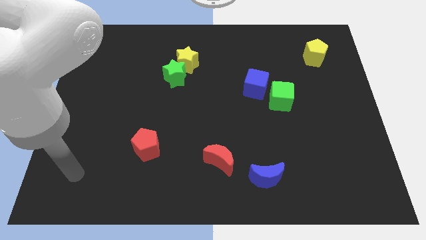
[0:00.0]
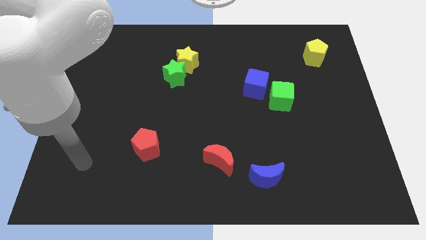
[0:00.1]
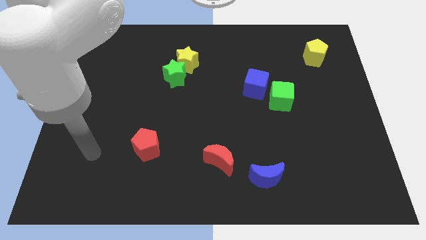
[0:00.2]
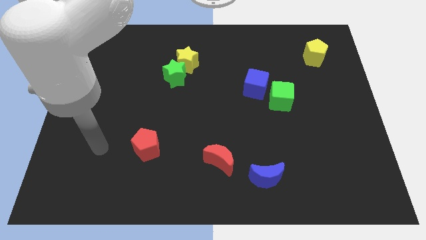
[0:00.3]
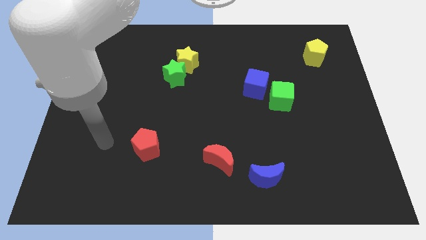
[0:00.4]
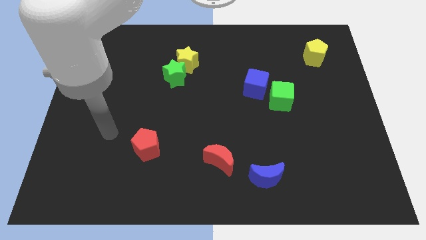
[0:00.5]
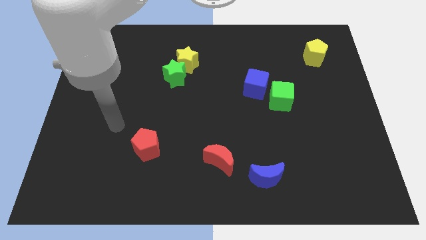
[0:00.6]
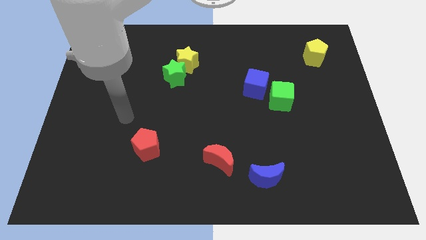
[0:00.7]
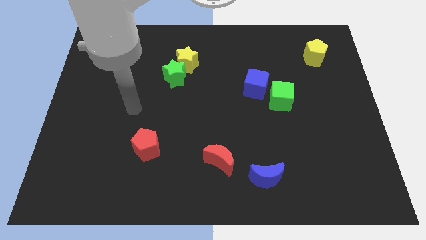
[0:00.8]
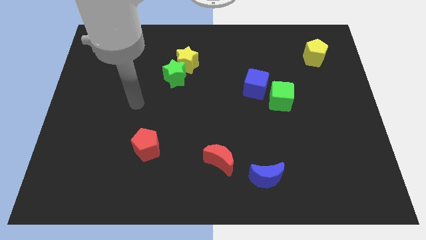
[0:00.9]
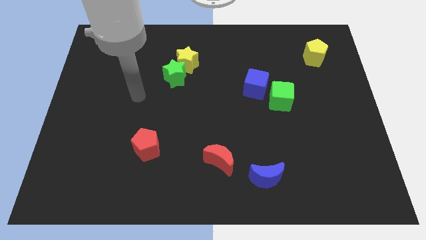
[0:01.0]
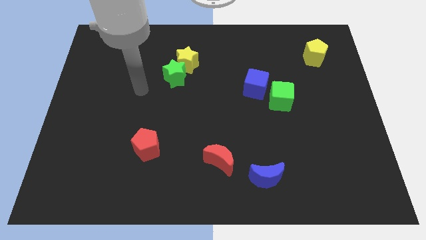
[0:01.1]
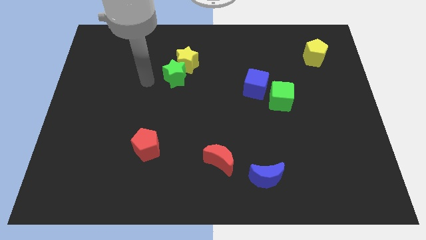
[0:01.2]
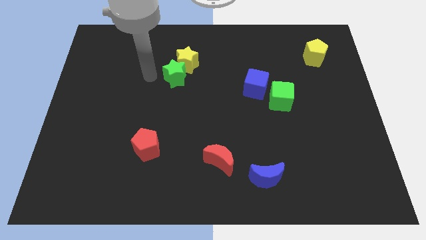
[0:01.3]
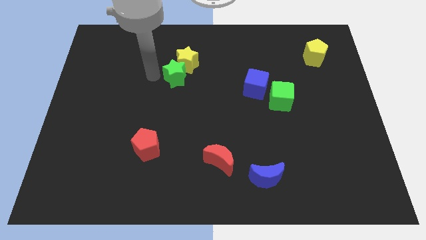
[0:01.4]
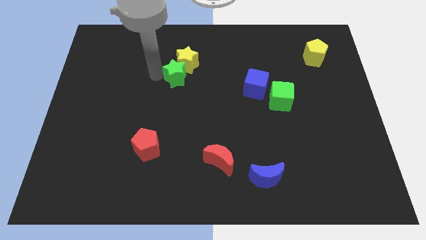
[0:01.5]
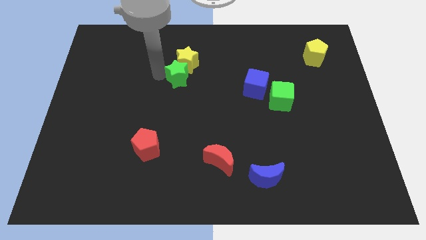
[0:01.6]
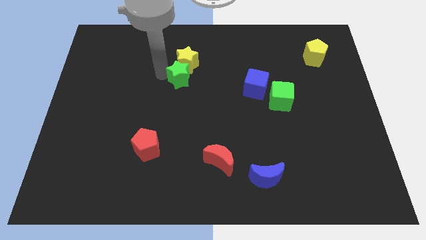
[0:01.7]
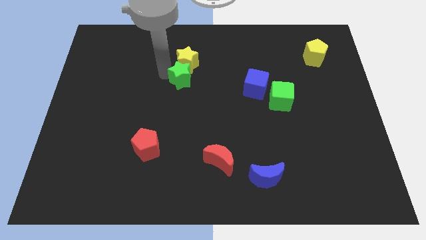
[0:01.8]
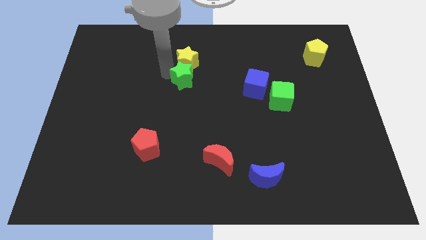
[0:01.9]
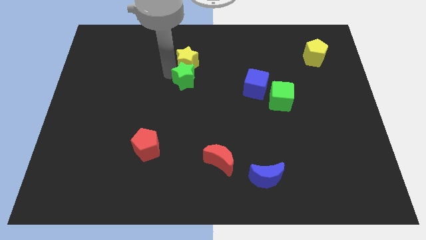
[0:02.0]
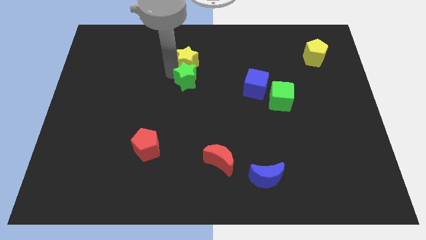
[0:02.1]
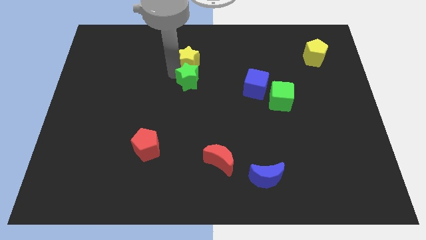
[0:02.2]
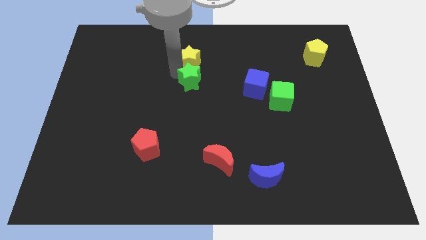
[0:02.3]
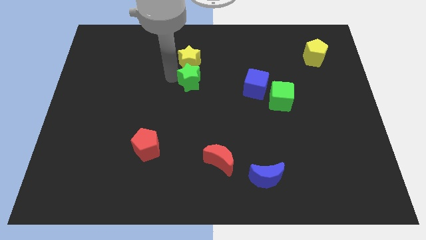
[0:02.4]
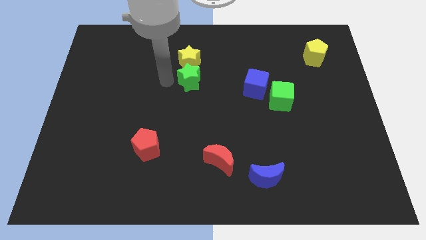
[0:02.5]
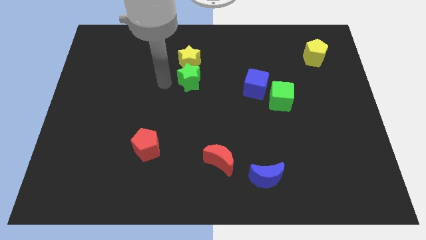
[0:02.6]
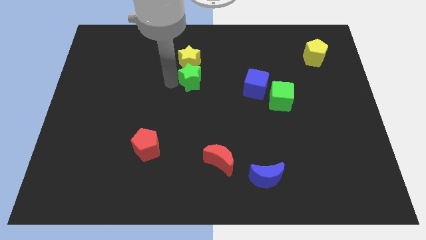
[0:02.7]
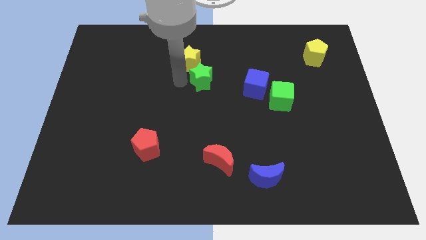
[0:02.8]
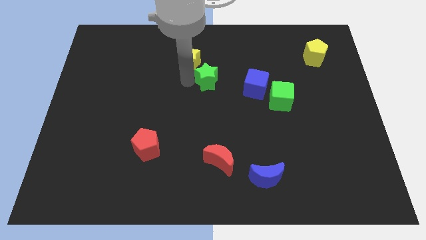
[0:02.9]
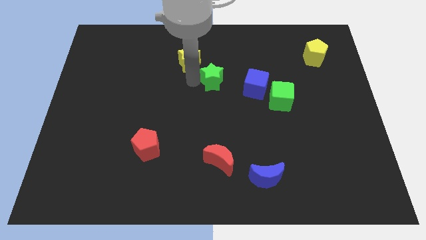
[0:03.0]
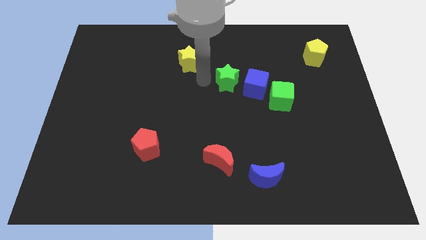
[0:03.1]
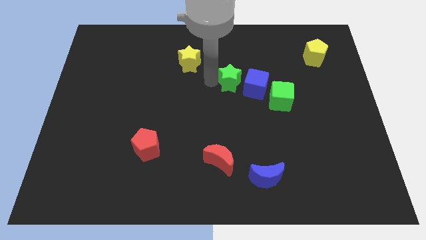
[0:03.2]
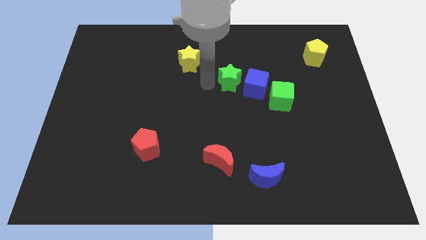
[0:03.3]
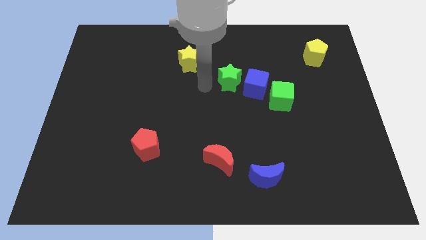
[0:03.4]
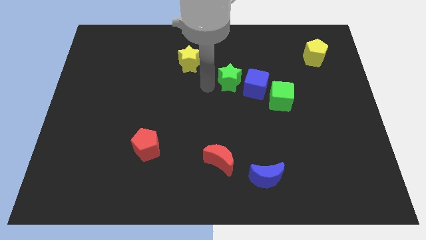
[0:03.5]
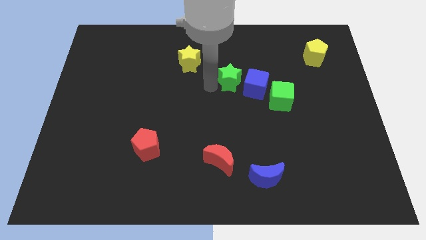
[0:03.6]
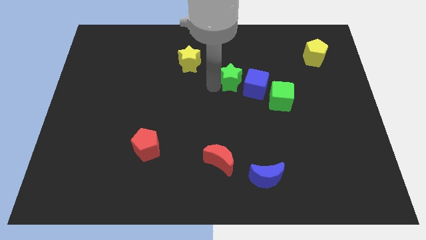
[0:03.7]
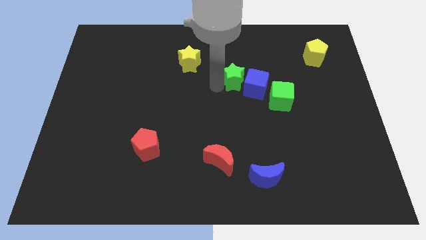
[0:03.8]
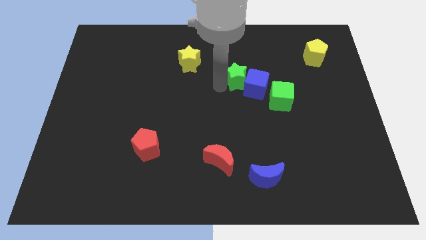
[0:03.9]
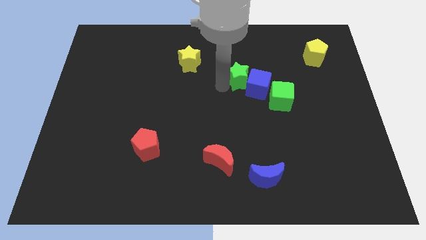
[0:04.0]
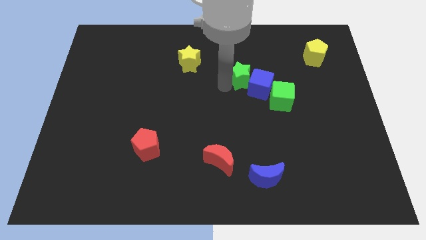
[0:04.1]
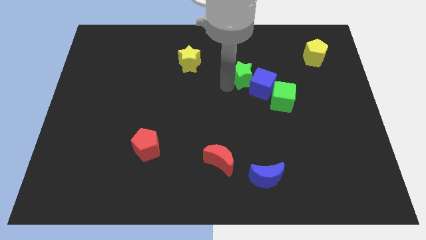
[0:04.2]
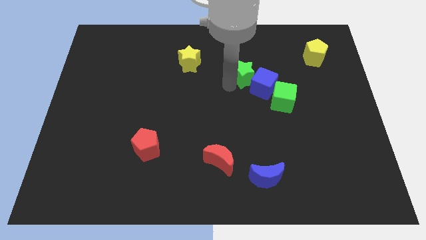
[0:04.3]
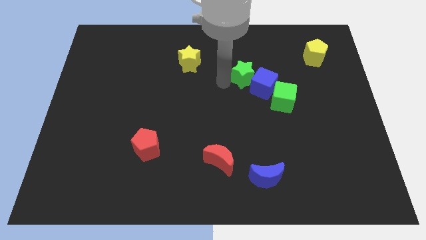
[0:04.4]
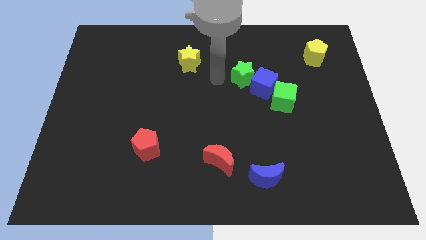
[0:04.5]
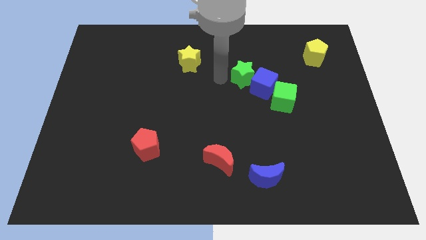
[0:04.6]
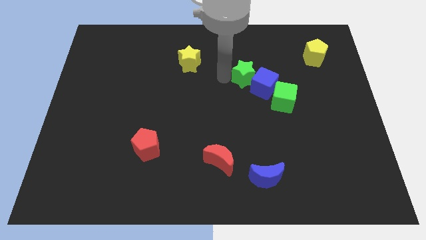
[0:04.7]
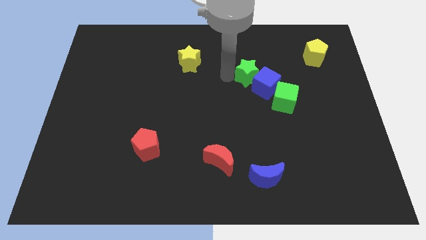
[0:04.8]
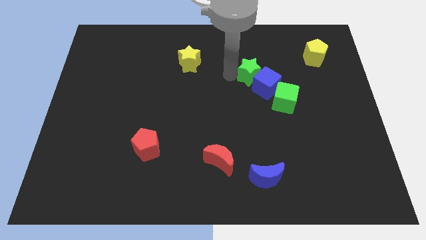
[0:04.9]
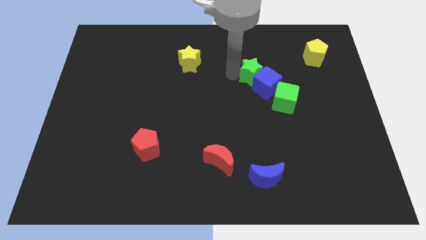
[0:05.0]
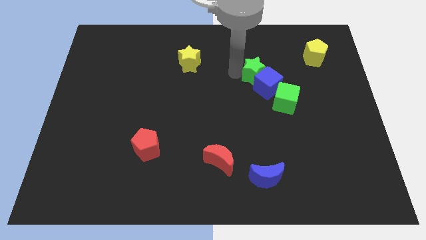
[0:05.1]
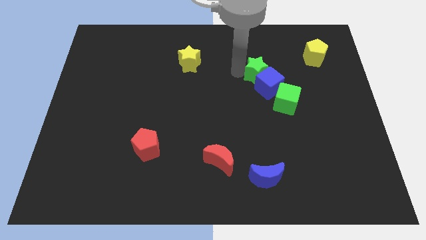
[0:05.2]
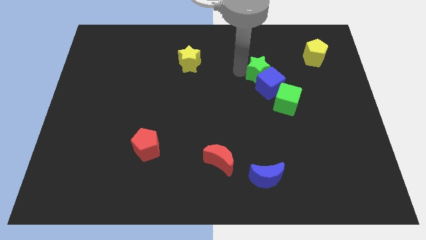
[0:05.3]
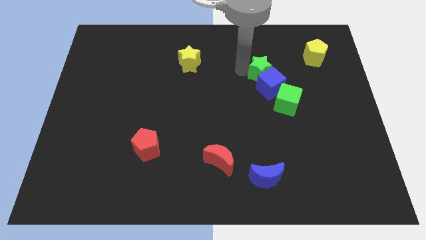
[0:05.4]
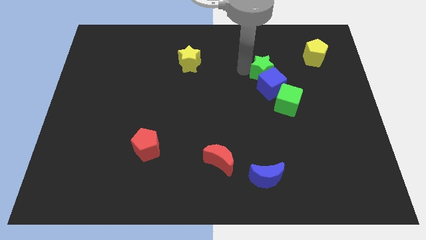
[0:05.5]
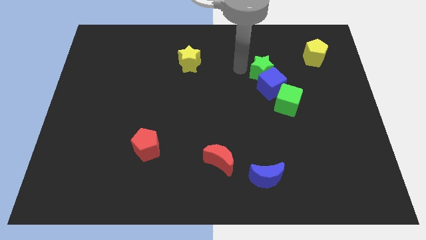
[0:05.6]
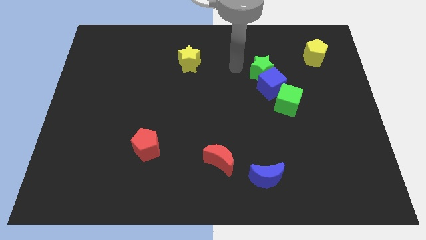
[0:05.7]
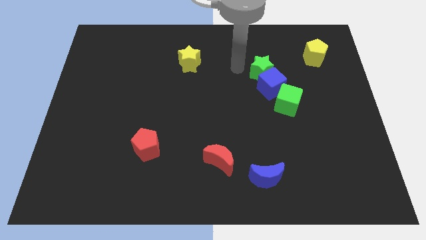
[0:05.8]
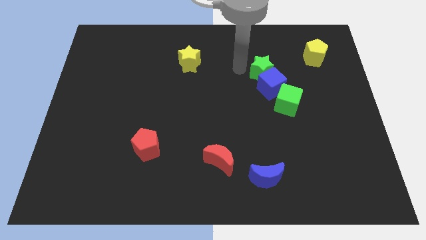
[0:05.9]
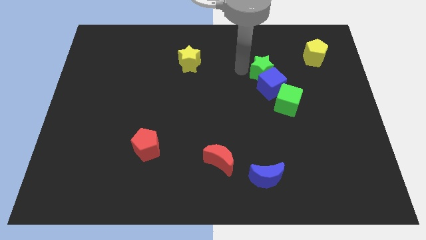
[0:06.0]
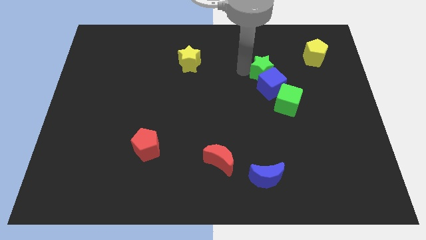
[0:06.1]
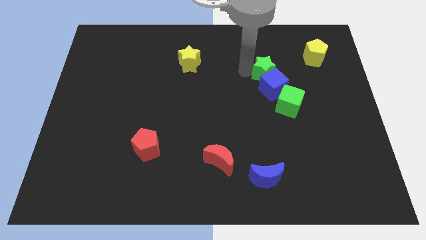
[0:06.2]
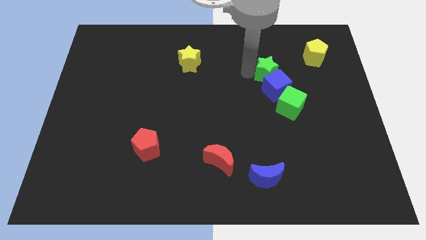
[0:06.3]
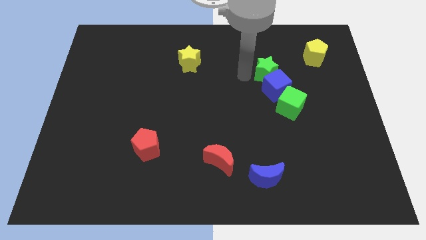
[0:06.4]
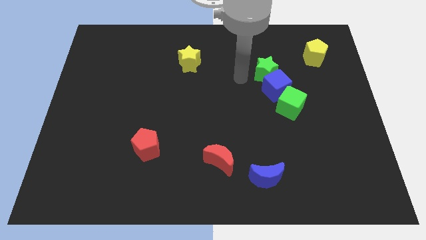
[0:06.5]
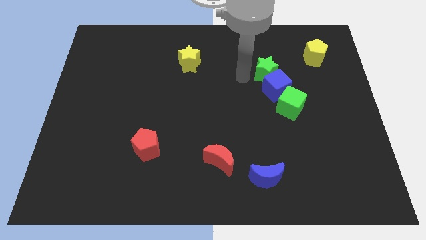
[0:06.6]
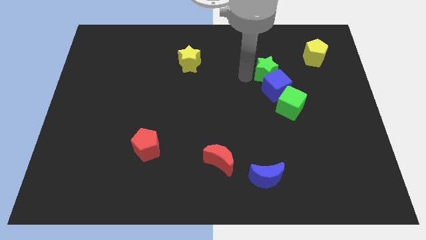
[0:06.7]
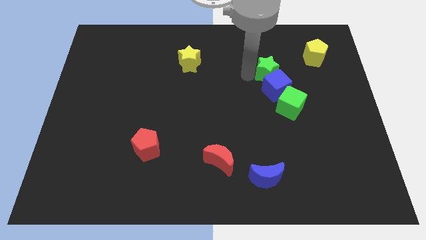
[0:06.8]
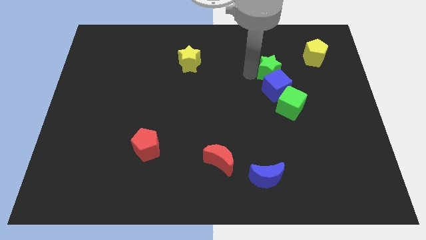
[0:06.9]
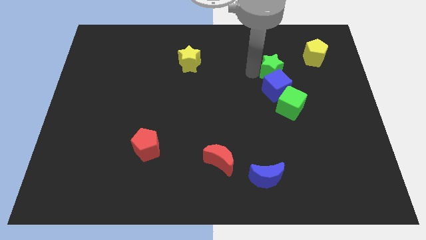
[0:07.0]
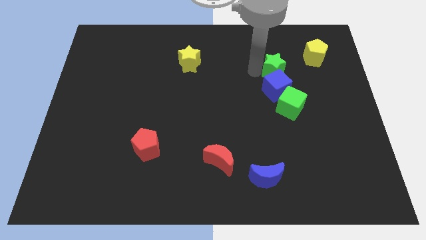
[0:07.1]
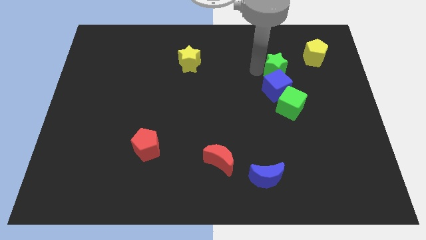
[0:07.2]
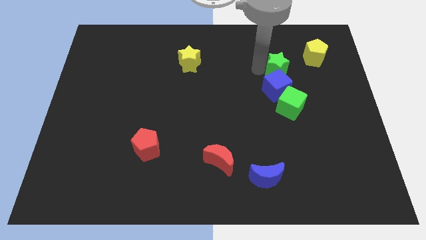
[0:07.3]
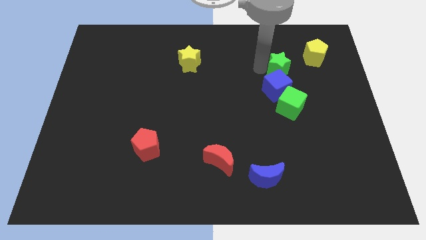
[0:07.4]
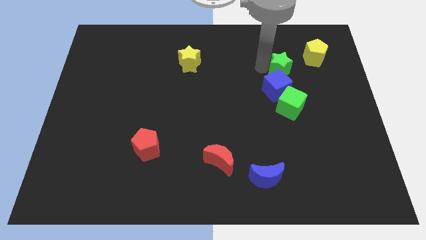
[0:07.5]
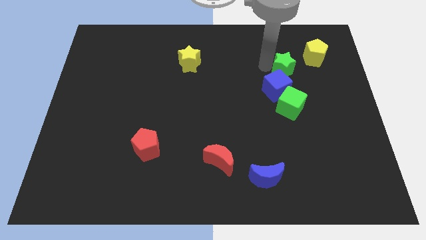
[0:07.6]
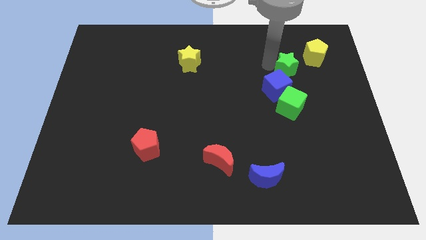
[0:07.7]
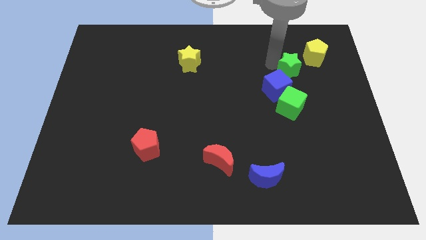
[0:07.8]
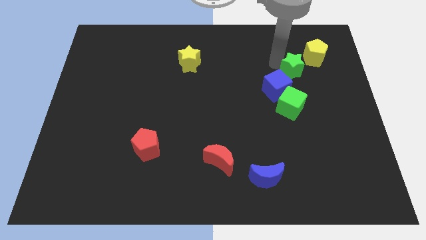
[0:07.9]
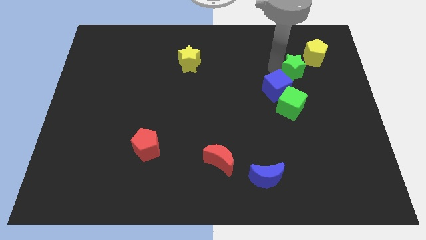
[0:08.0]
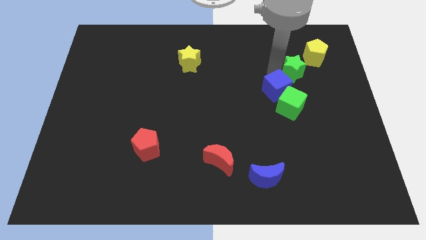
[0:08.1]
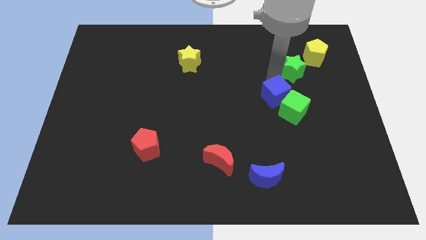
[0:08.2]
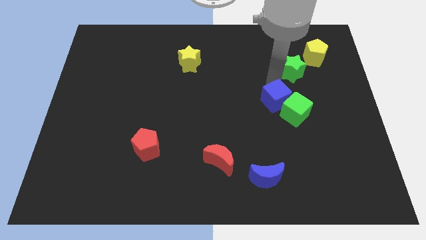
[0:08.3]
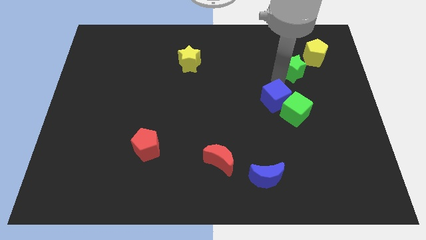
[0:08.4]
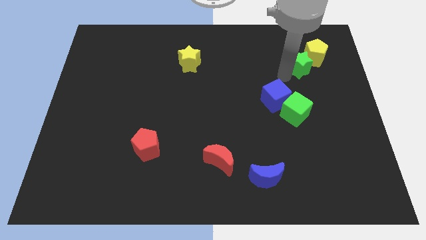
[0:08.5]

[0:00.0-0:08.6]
slide the green star close to the yellow pentagon
